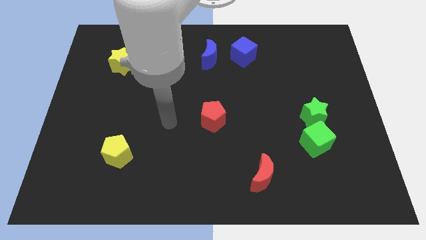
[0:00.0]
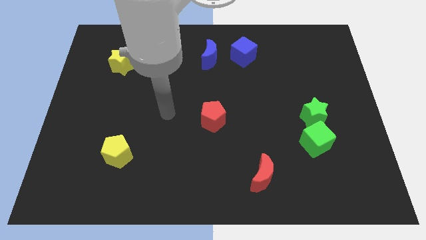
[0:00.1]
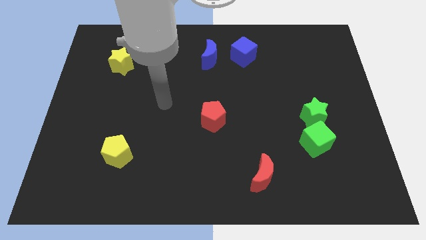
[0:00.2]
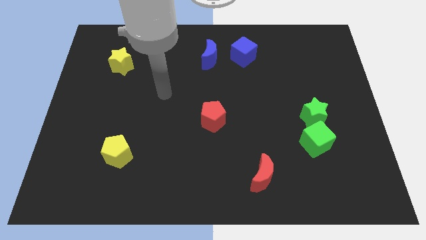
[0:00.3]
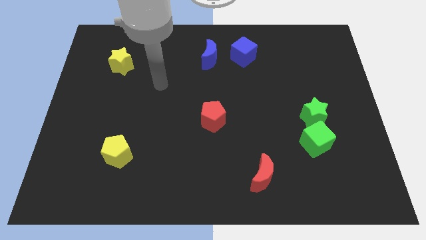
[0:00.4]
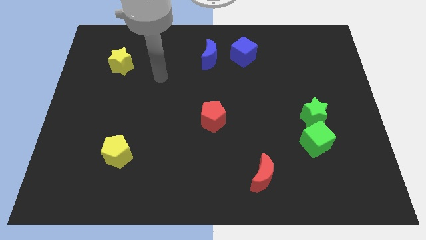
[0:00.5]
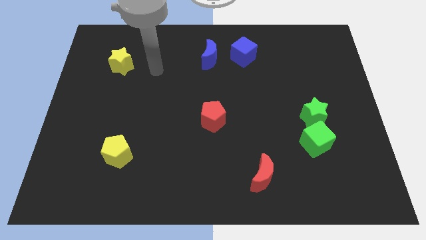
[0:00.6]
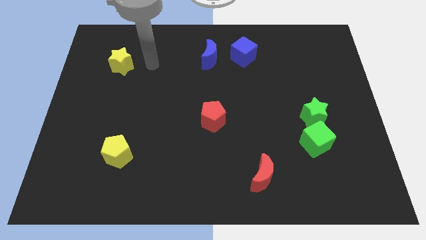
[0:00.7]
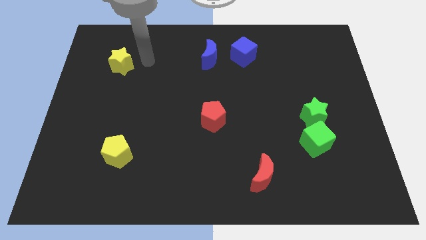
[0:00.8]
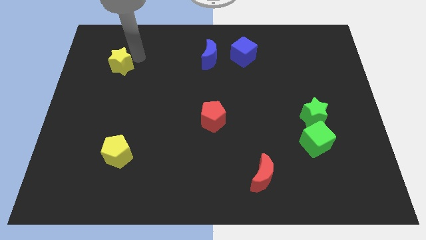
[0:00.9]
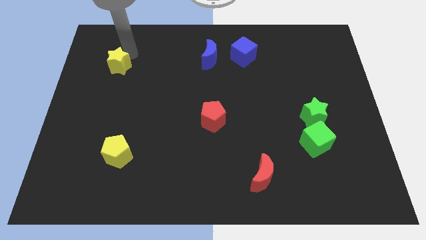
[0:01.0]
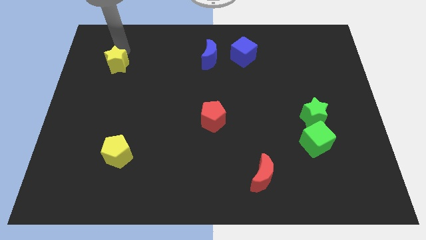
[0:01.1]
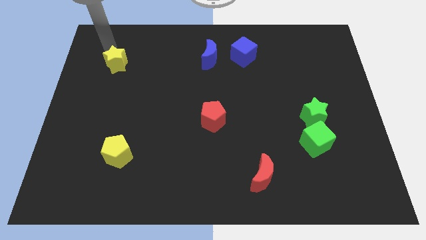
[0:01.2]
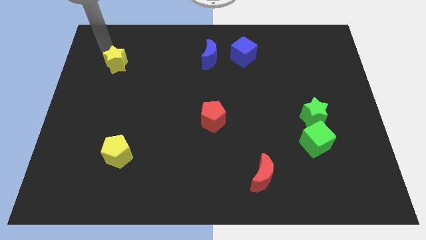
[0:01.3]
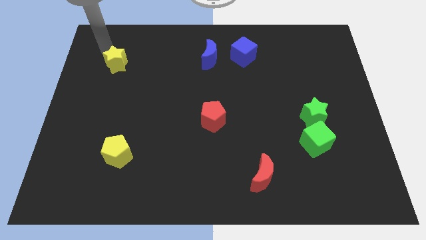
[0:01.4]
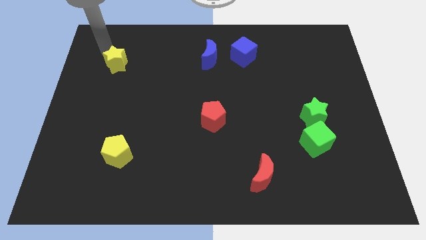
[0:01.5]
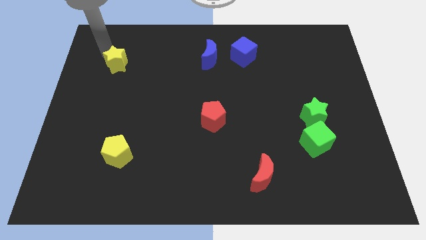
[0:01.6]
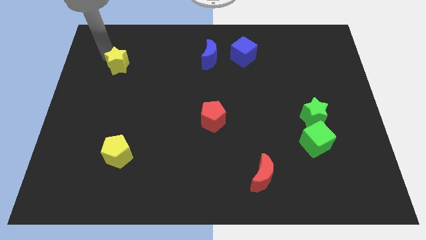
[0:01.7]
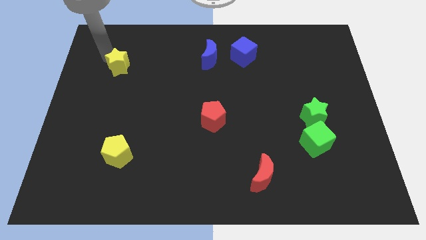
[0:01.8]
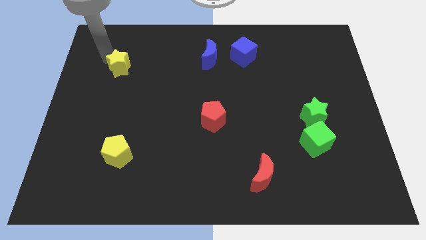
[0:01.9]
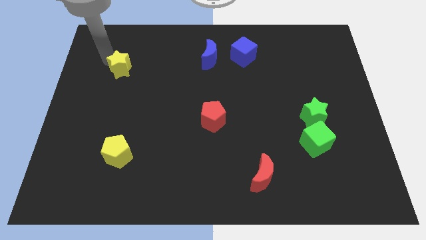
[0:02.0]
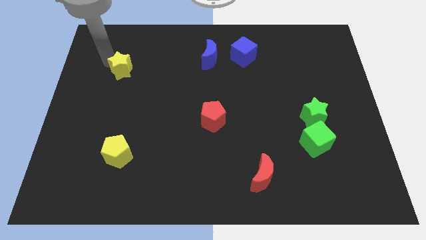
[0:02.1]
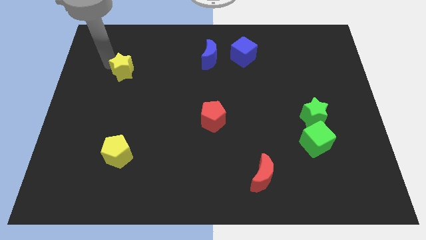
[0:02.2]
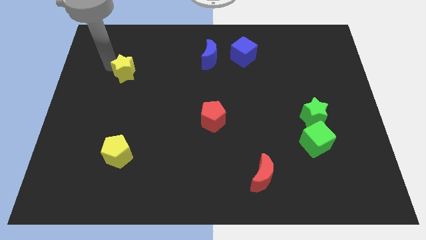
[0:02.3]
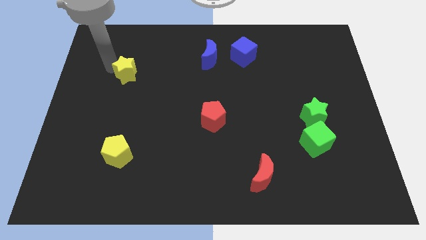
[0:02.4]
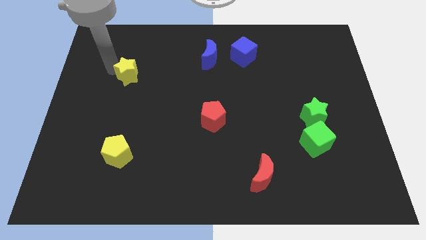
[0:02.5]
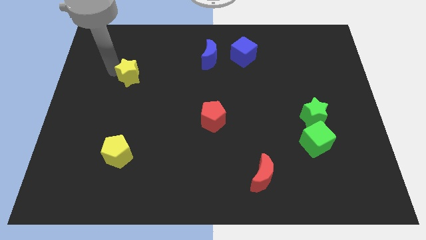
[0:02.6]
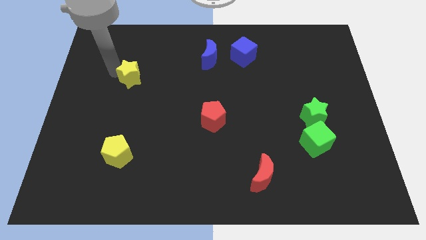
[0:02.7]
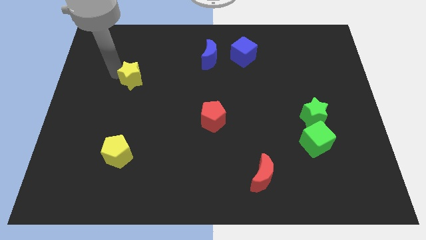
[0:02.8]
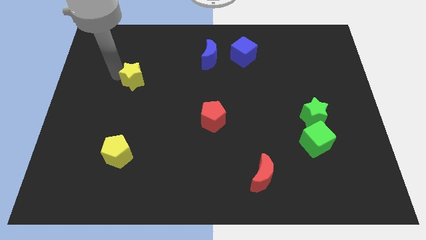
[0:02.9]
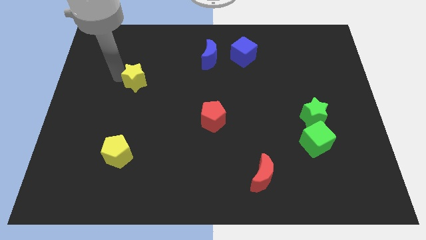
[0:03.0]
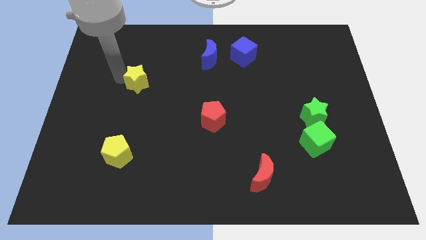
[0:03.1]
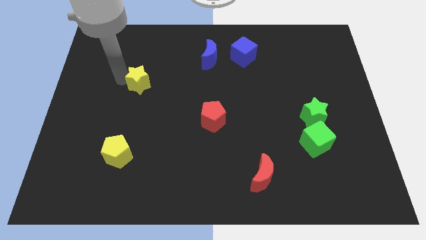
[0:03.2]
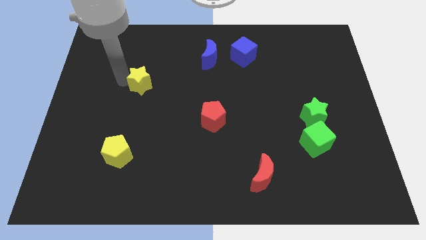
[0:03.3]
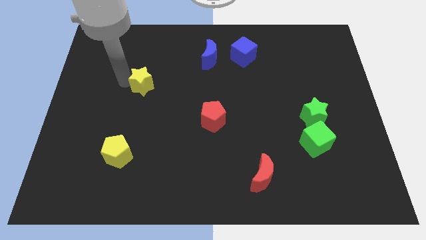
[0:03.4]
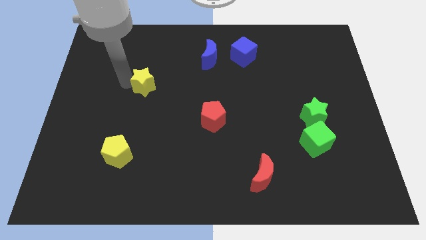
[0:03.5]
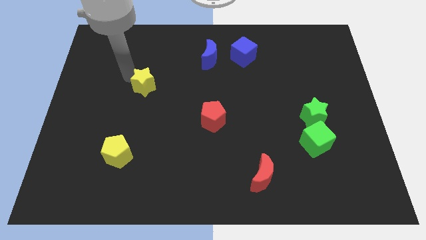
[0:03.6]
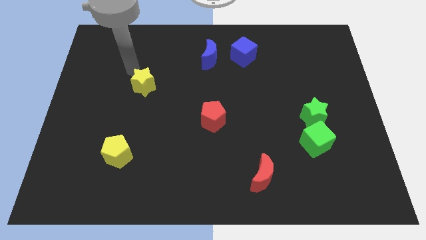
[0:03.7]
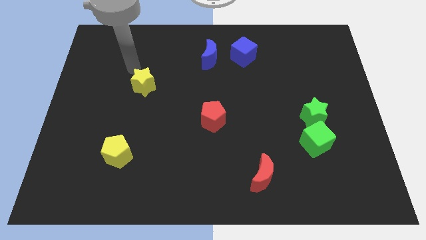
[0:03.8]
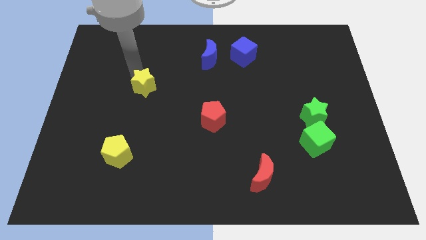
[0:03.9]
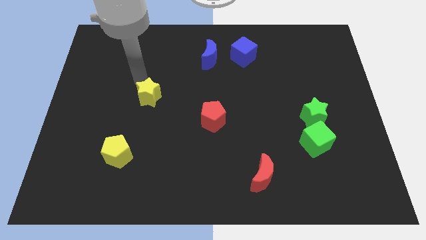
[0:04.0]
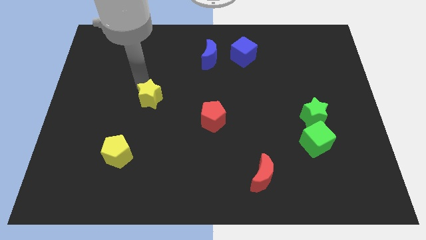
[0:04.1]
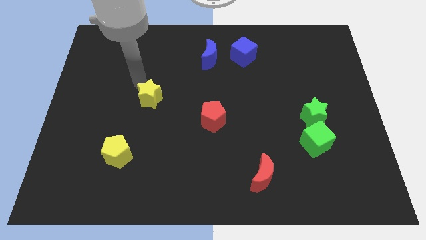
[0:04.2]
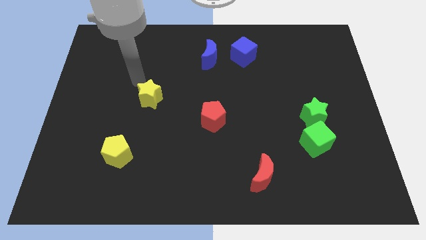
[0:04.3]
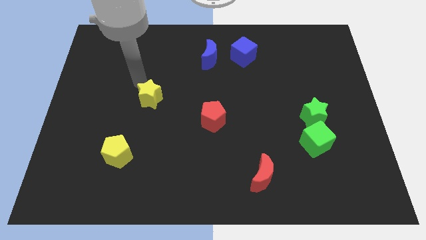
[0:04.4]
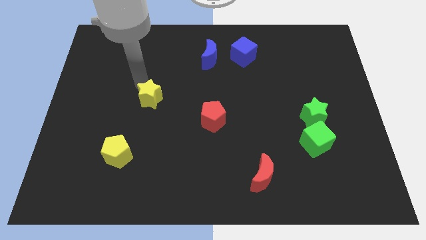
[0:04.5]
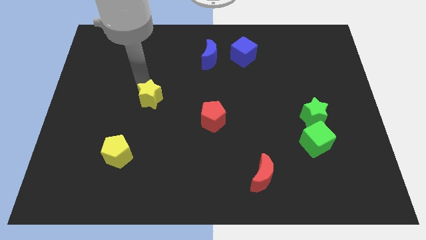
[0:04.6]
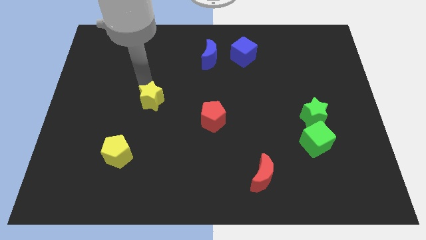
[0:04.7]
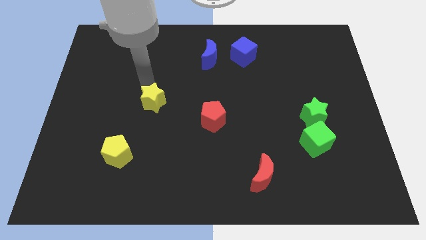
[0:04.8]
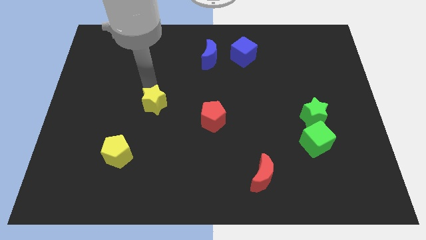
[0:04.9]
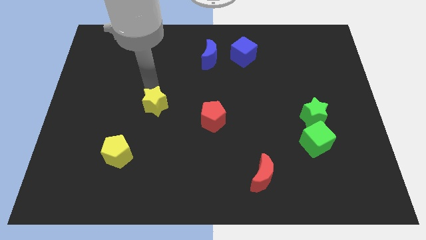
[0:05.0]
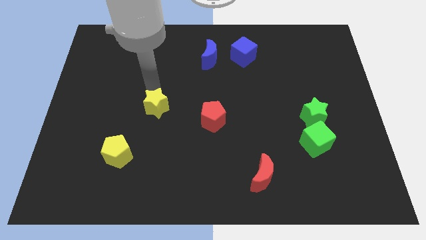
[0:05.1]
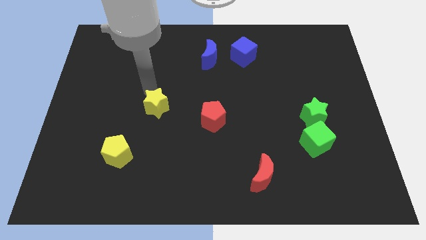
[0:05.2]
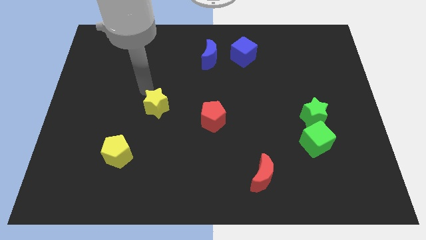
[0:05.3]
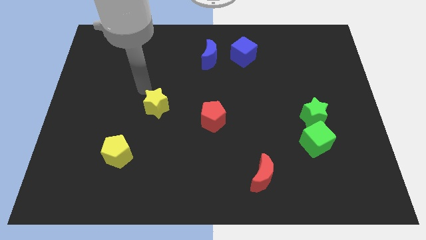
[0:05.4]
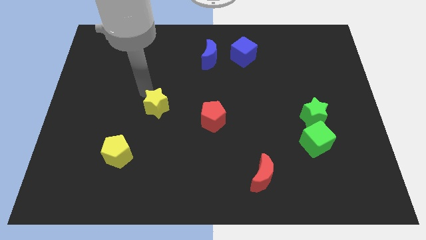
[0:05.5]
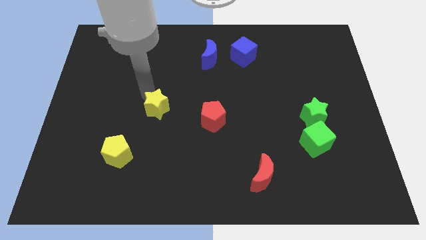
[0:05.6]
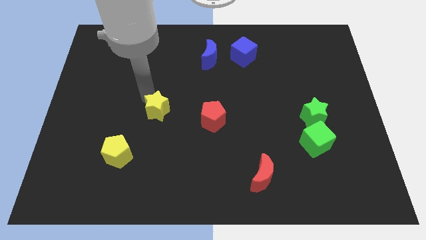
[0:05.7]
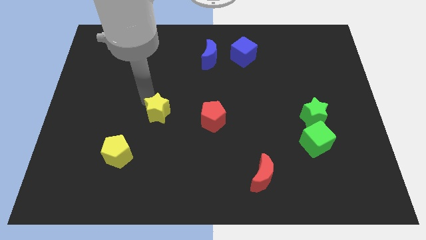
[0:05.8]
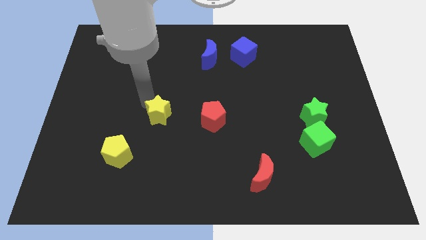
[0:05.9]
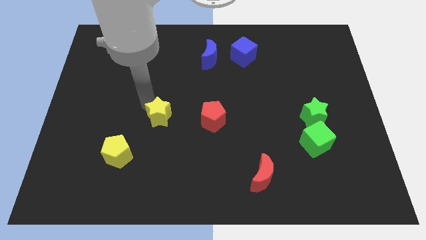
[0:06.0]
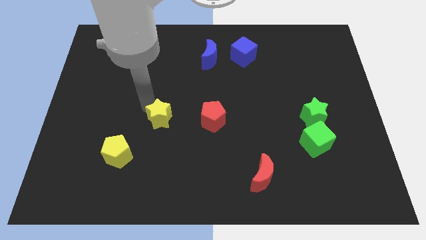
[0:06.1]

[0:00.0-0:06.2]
push the yellow star down and right

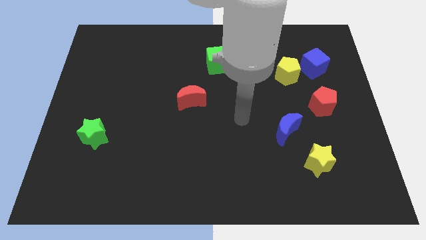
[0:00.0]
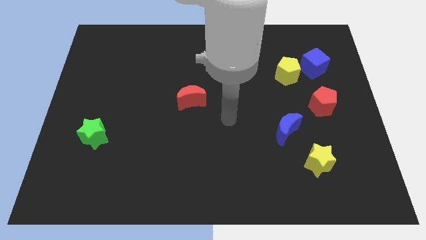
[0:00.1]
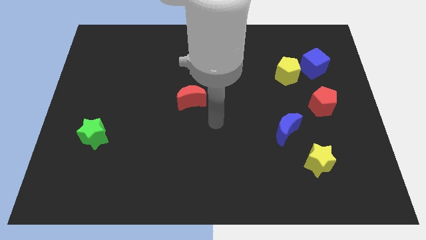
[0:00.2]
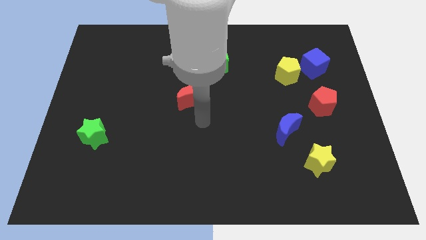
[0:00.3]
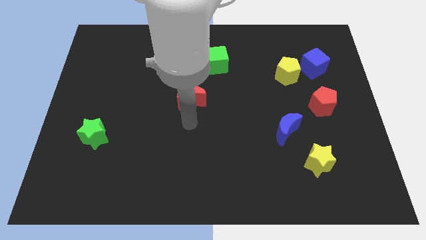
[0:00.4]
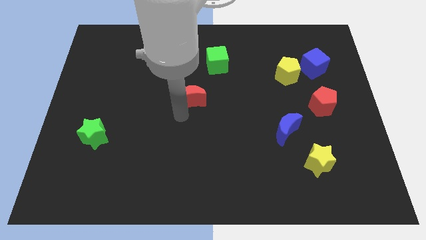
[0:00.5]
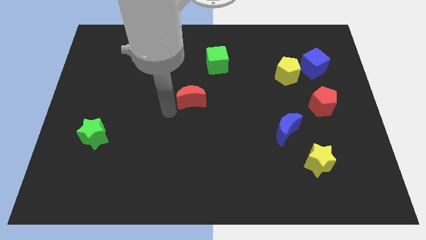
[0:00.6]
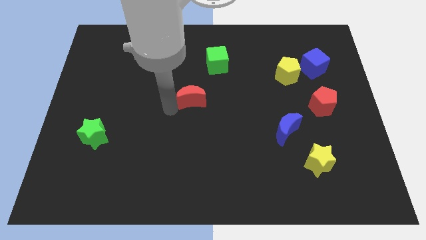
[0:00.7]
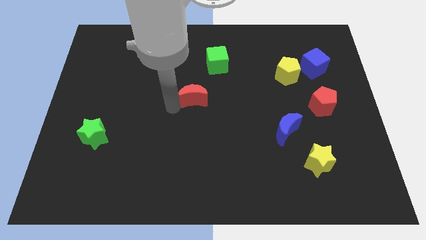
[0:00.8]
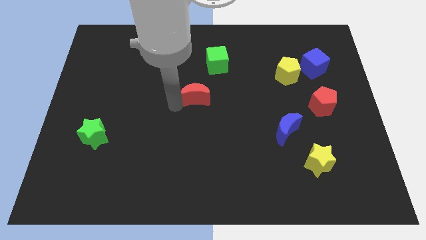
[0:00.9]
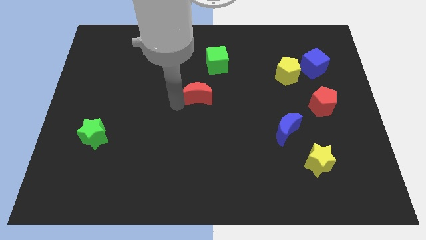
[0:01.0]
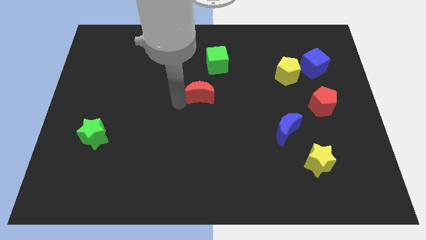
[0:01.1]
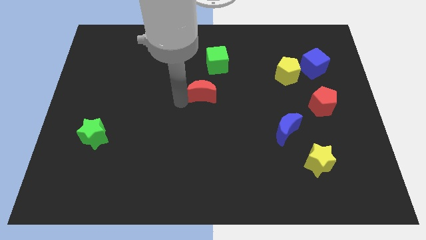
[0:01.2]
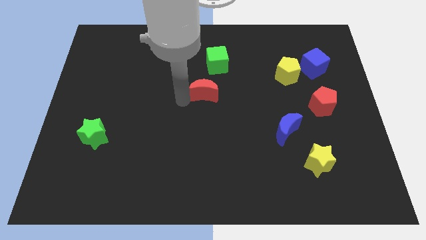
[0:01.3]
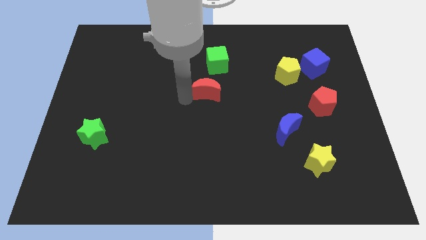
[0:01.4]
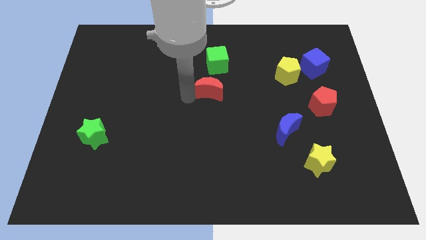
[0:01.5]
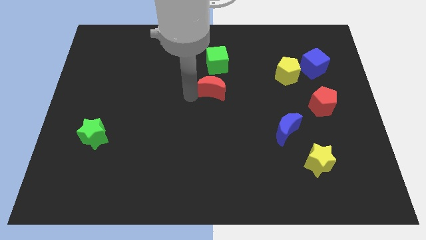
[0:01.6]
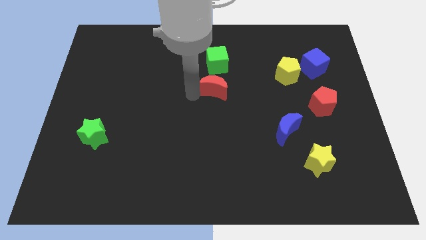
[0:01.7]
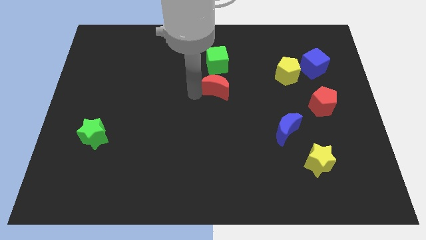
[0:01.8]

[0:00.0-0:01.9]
push the red moon diagonally upwards and to the right a little bit
